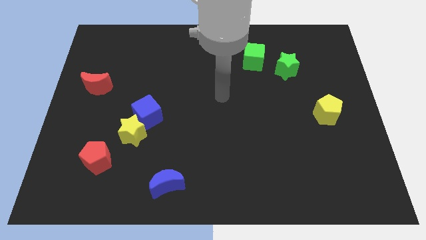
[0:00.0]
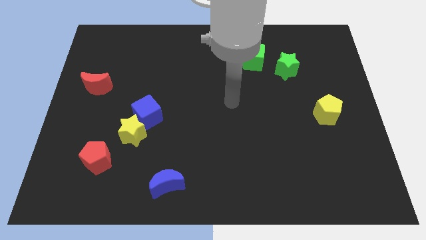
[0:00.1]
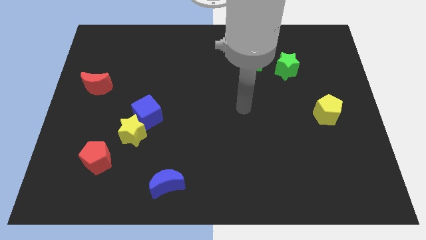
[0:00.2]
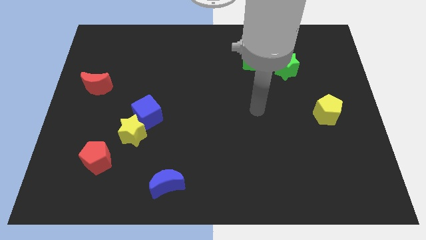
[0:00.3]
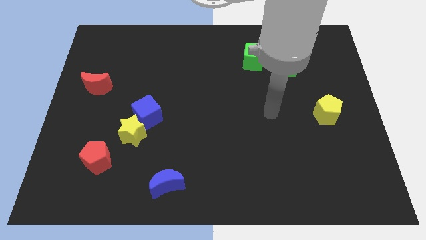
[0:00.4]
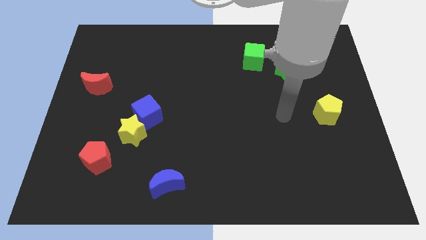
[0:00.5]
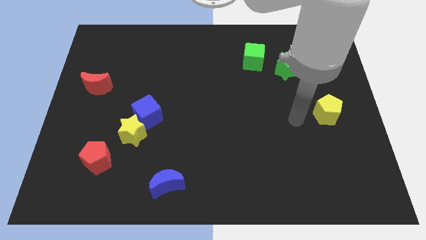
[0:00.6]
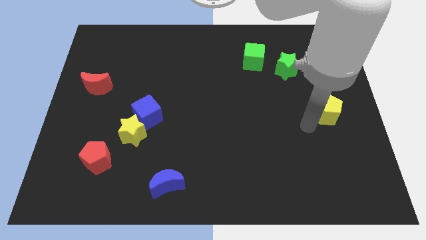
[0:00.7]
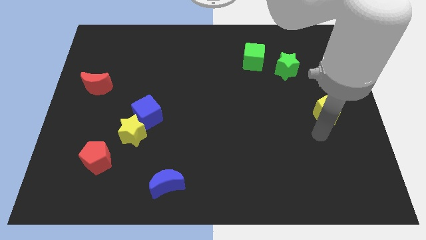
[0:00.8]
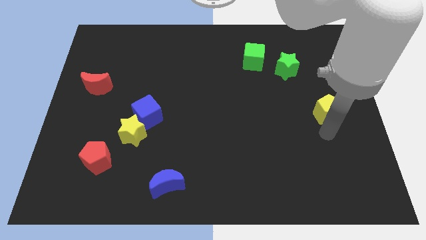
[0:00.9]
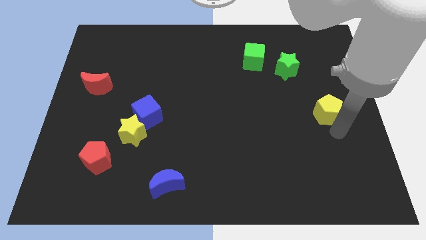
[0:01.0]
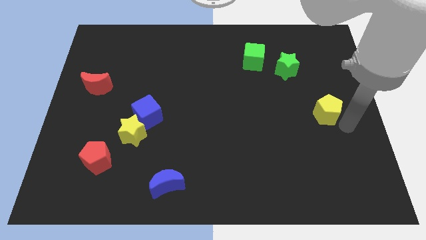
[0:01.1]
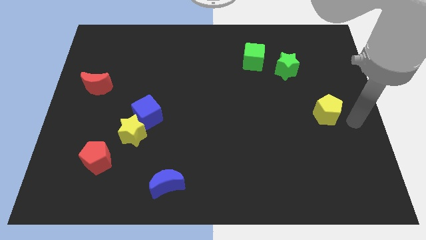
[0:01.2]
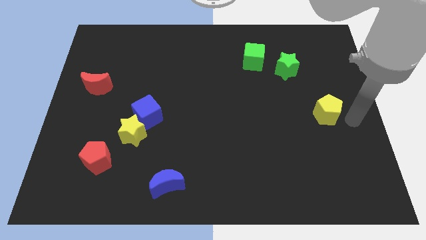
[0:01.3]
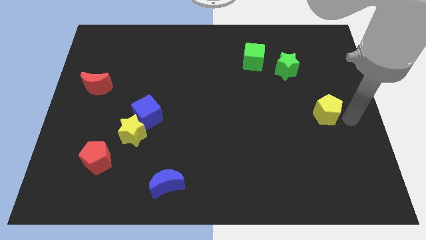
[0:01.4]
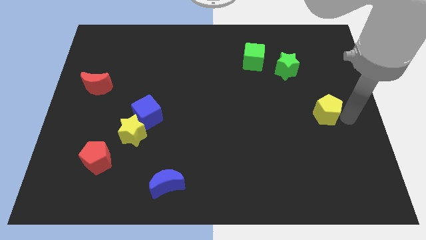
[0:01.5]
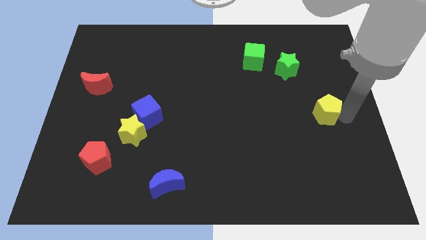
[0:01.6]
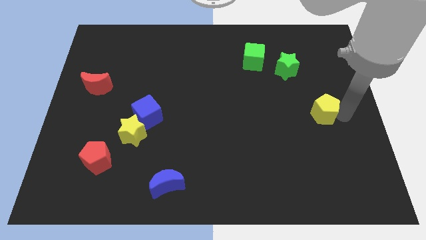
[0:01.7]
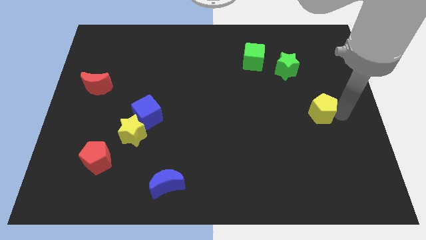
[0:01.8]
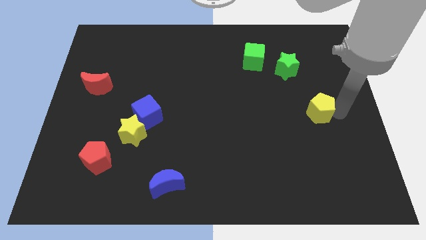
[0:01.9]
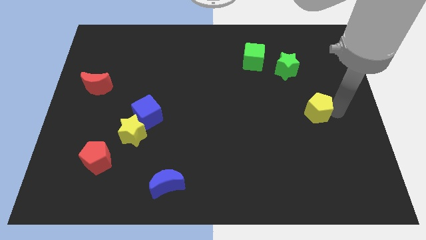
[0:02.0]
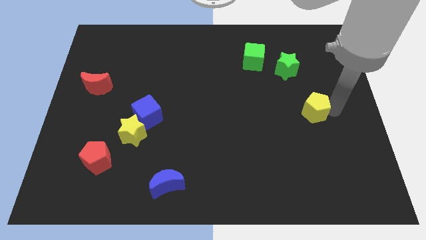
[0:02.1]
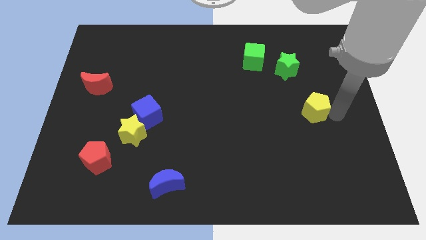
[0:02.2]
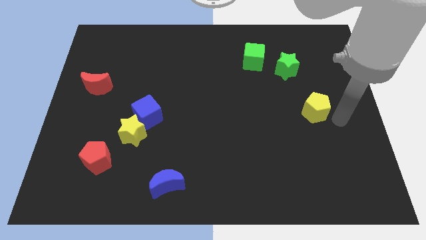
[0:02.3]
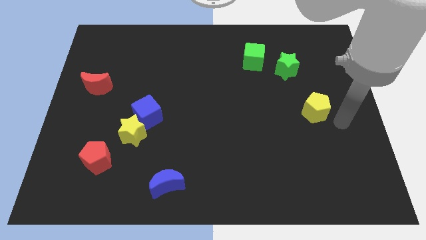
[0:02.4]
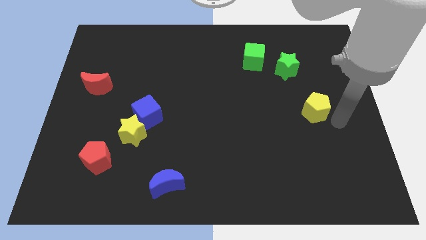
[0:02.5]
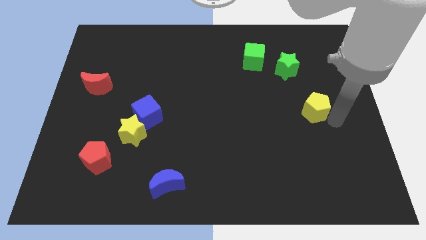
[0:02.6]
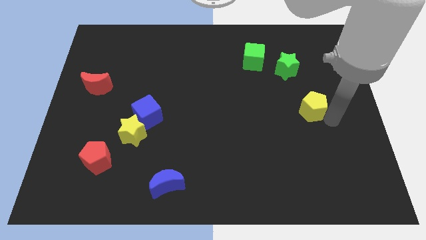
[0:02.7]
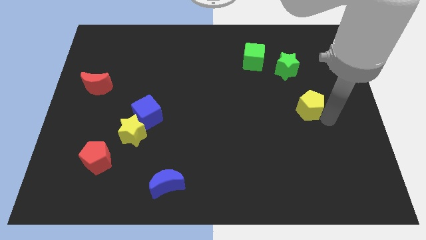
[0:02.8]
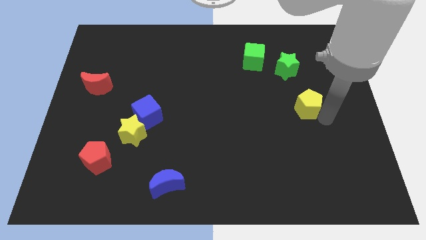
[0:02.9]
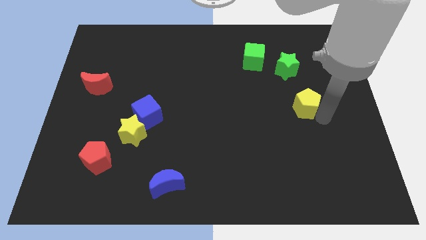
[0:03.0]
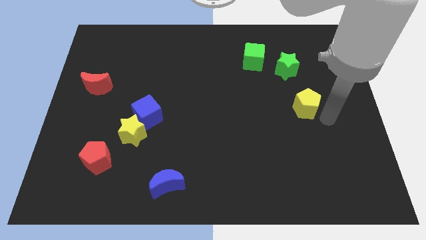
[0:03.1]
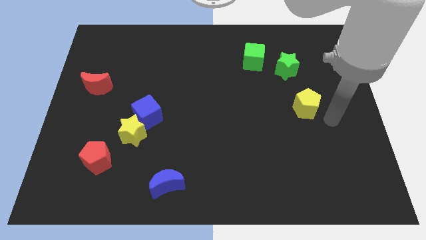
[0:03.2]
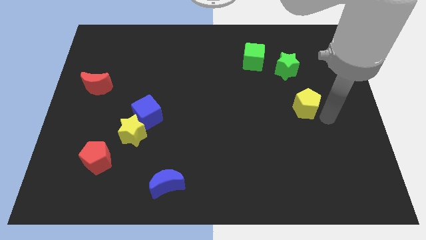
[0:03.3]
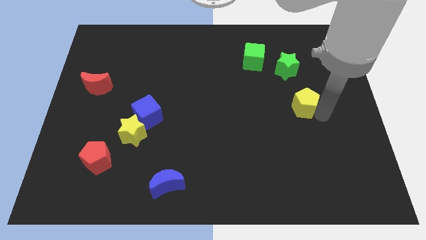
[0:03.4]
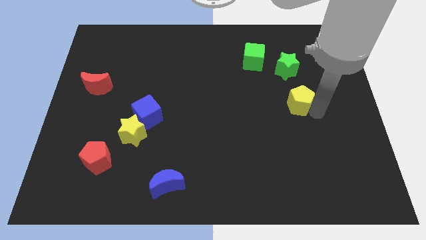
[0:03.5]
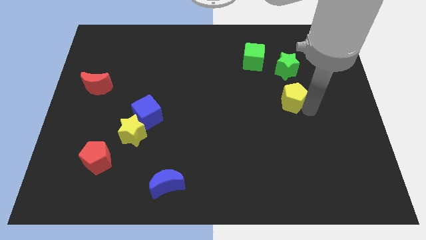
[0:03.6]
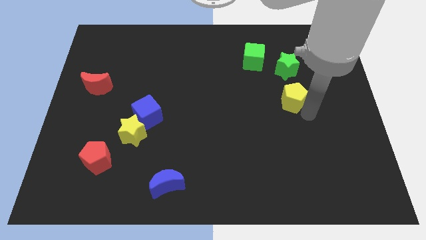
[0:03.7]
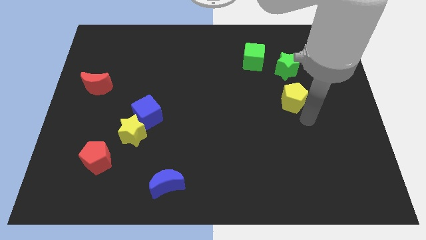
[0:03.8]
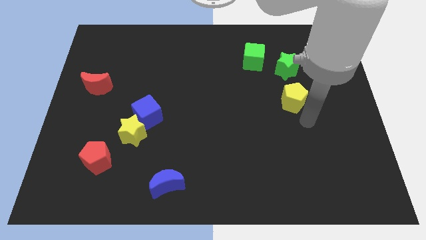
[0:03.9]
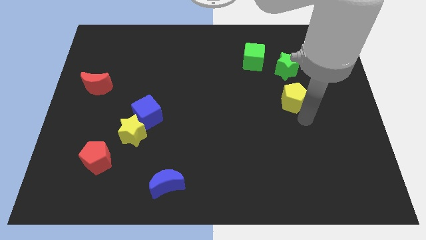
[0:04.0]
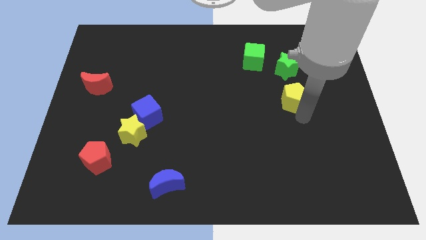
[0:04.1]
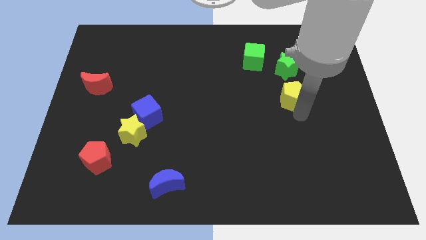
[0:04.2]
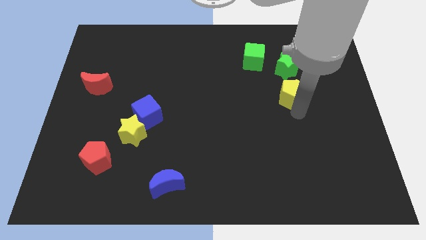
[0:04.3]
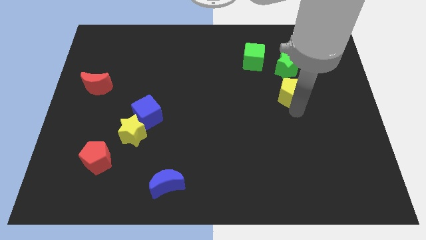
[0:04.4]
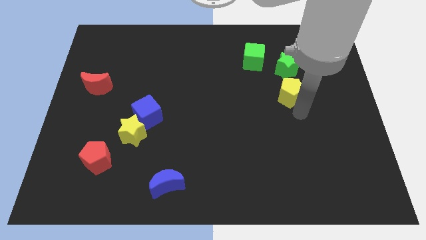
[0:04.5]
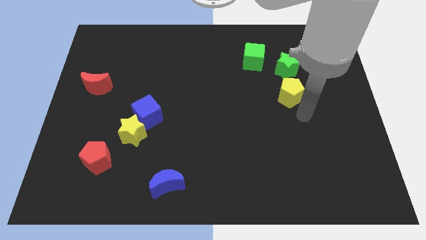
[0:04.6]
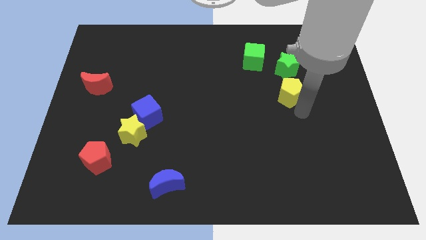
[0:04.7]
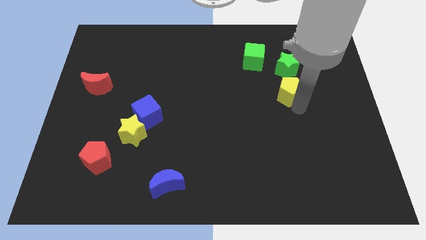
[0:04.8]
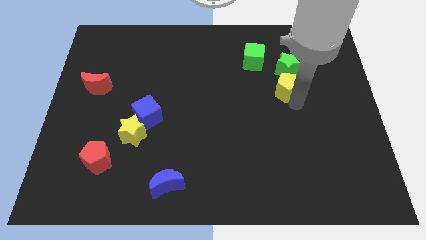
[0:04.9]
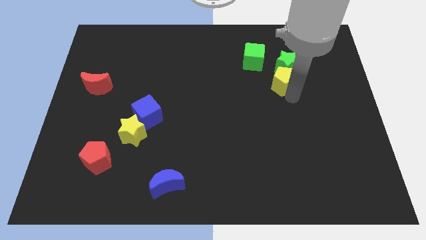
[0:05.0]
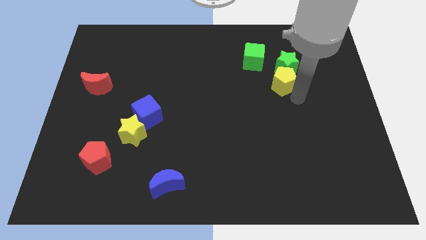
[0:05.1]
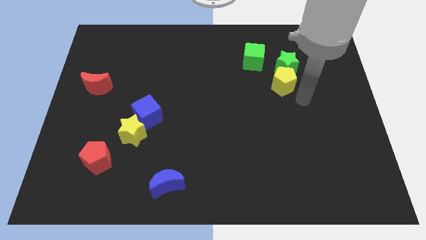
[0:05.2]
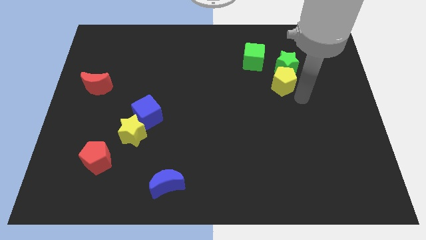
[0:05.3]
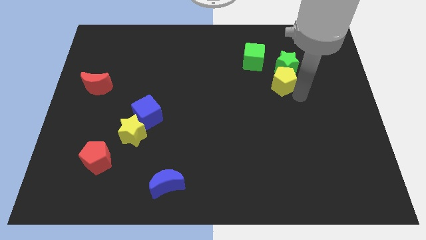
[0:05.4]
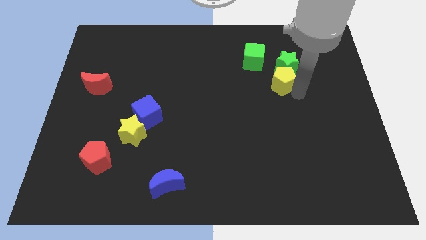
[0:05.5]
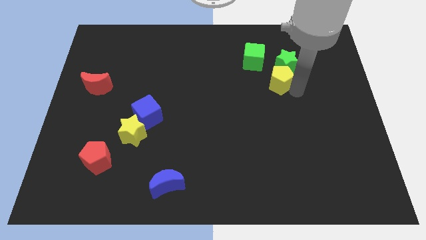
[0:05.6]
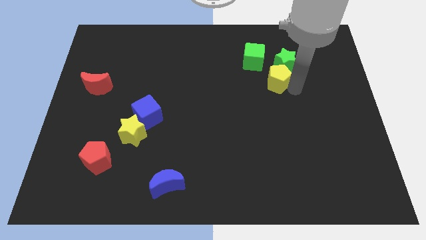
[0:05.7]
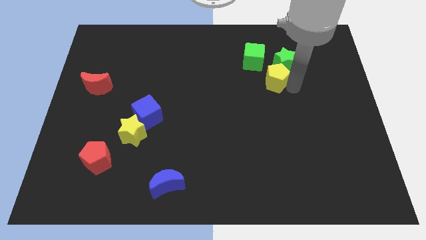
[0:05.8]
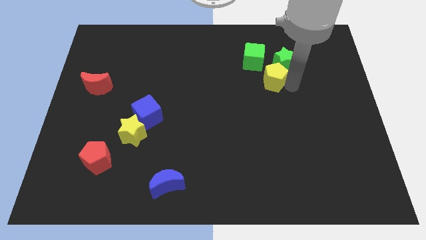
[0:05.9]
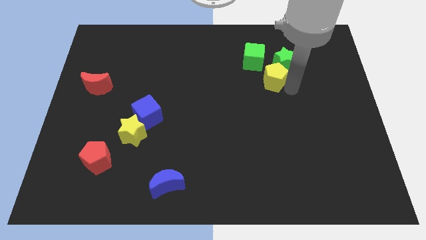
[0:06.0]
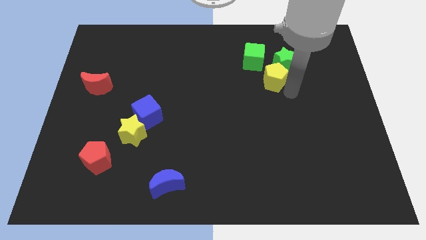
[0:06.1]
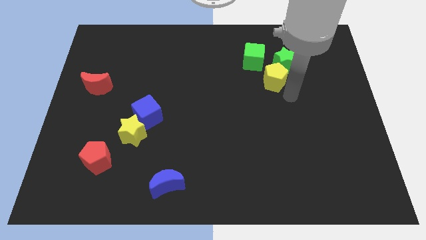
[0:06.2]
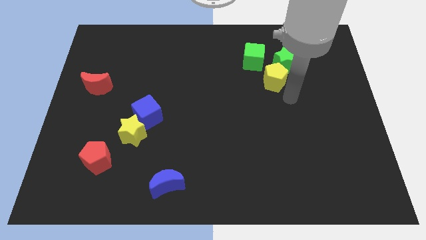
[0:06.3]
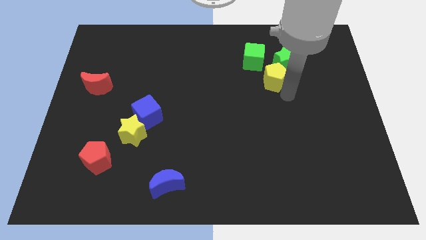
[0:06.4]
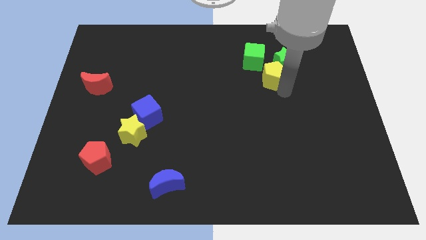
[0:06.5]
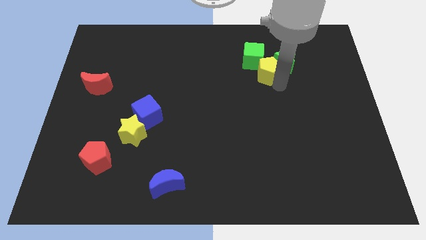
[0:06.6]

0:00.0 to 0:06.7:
push the yellow pentagon next to the green cube
